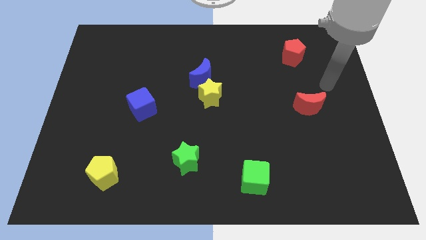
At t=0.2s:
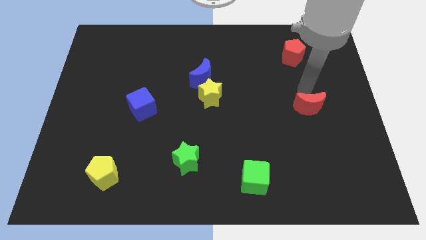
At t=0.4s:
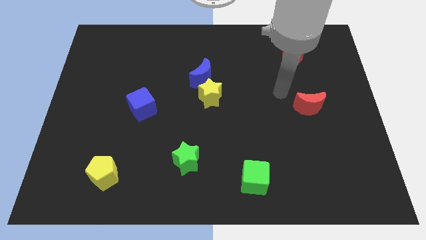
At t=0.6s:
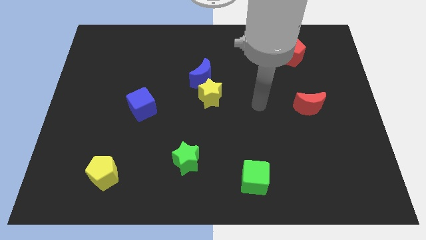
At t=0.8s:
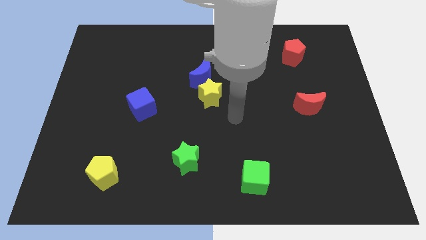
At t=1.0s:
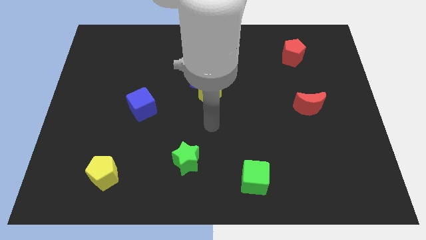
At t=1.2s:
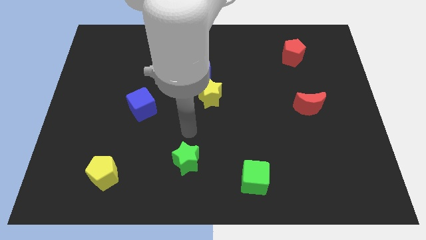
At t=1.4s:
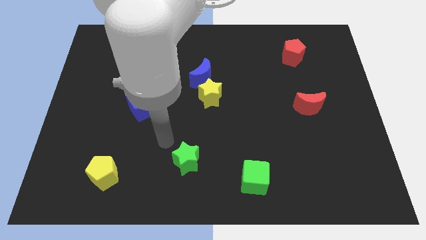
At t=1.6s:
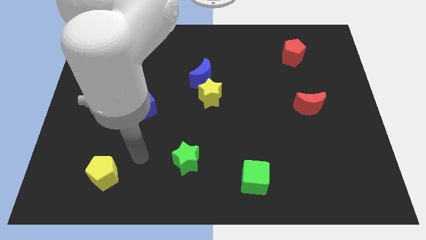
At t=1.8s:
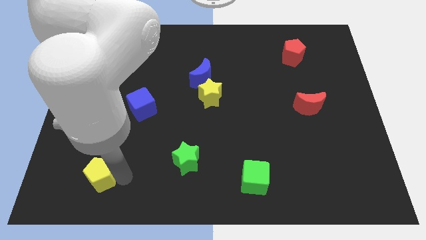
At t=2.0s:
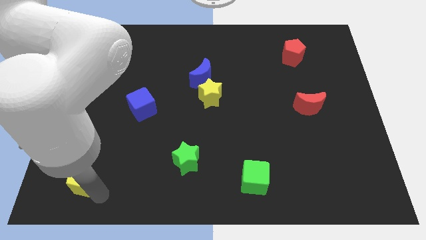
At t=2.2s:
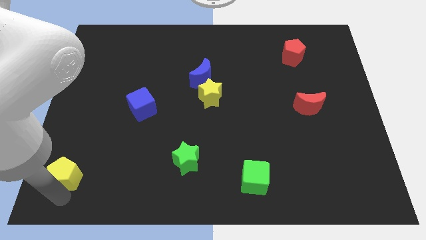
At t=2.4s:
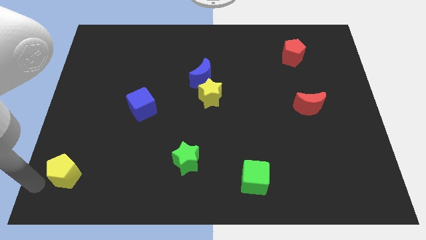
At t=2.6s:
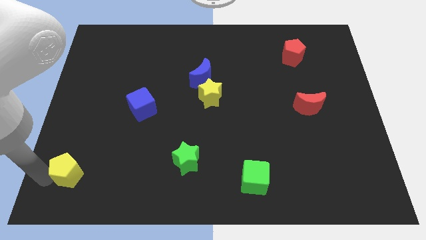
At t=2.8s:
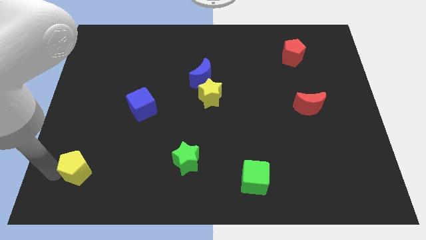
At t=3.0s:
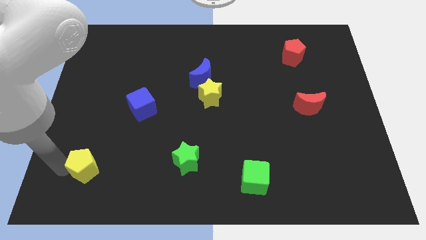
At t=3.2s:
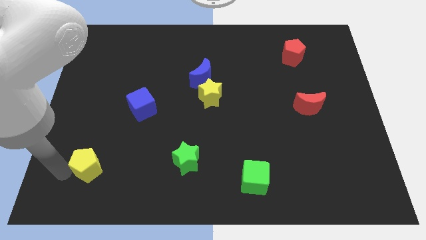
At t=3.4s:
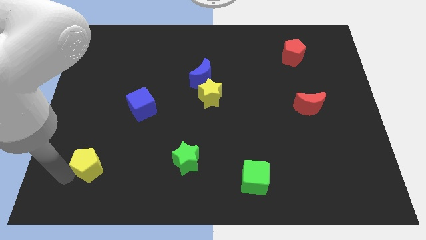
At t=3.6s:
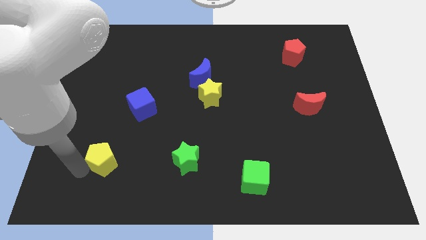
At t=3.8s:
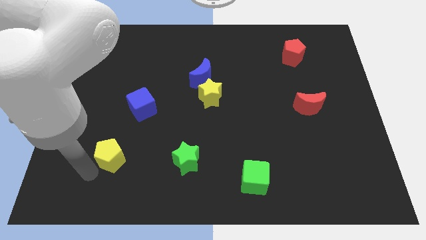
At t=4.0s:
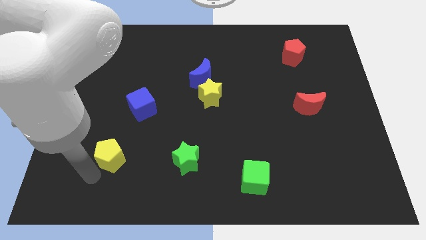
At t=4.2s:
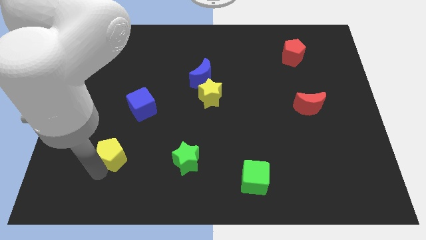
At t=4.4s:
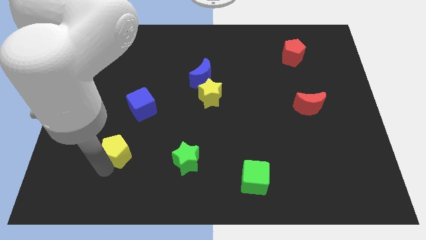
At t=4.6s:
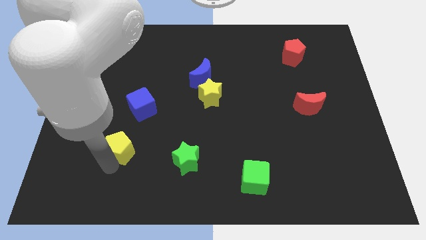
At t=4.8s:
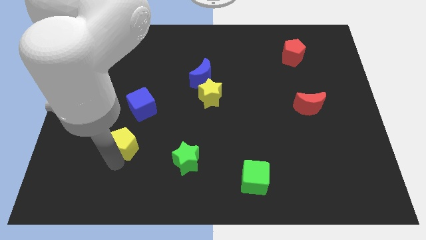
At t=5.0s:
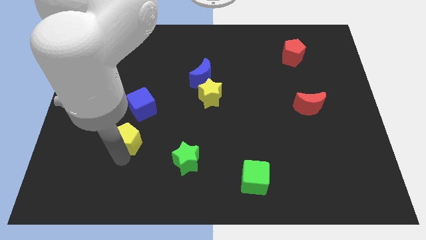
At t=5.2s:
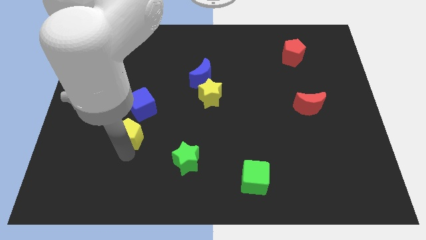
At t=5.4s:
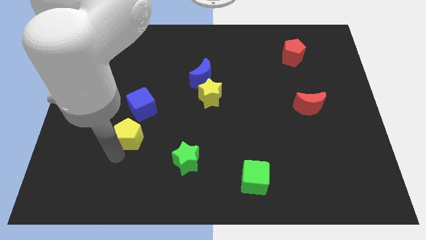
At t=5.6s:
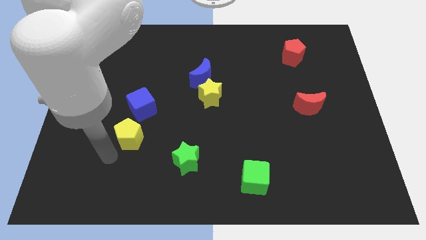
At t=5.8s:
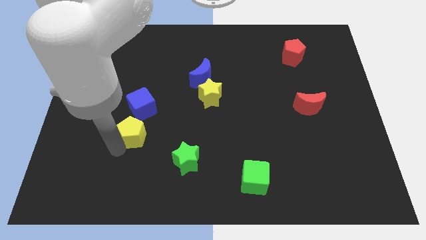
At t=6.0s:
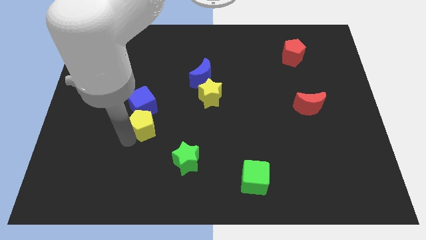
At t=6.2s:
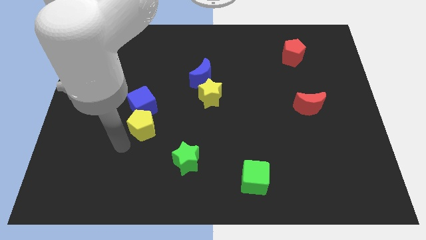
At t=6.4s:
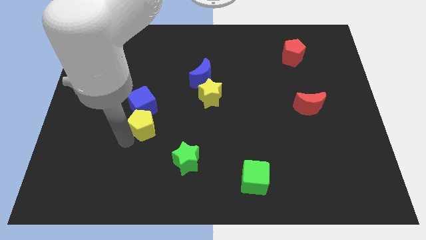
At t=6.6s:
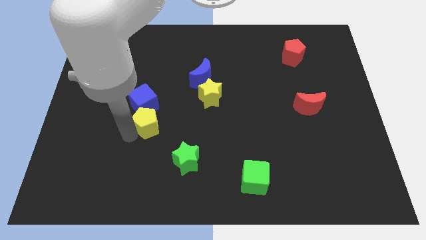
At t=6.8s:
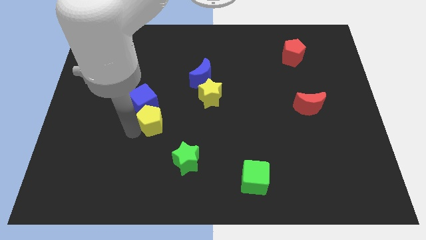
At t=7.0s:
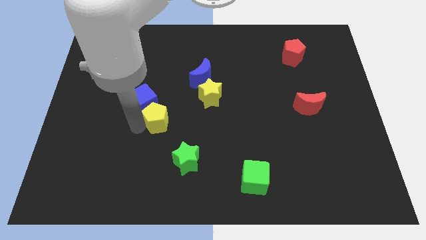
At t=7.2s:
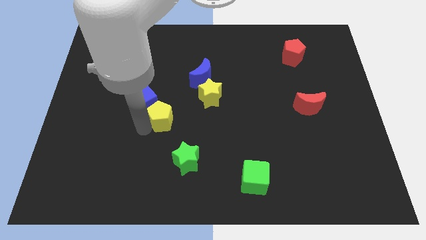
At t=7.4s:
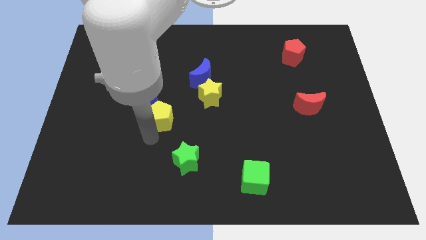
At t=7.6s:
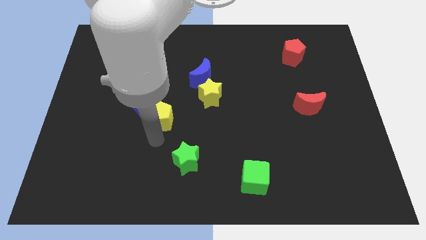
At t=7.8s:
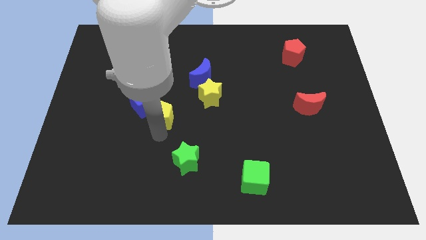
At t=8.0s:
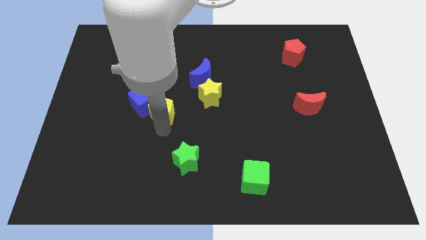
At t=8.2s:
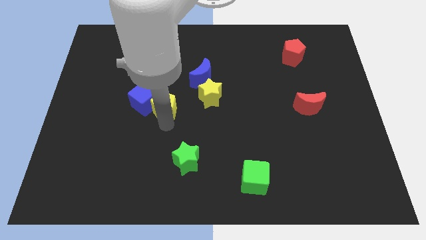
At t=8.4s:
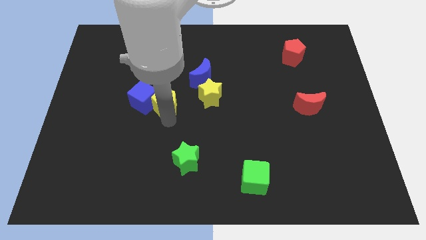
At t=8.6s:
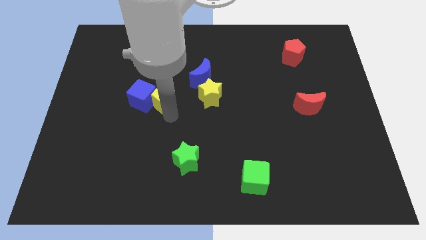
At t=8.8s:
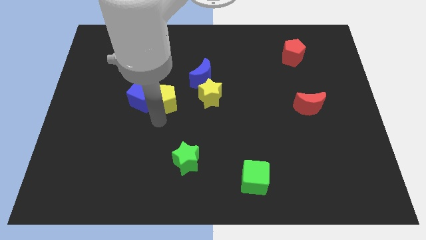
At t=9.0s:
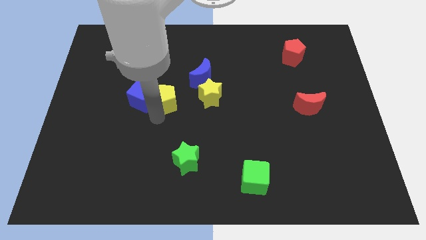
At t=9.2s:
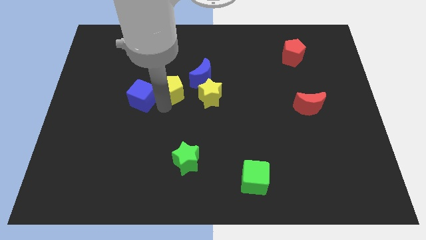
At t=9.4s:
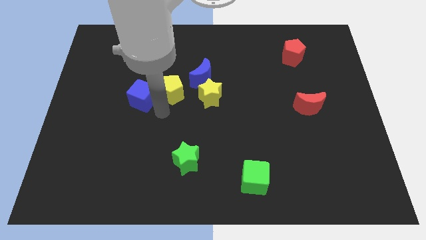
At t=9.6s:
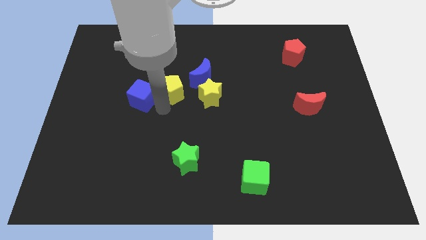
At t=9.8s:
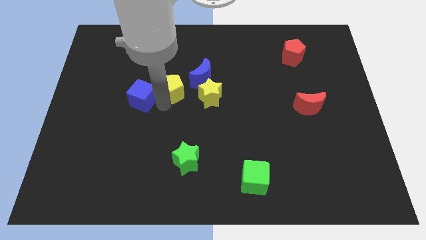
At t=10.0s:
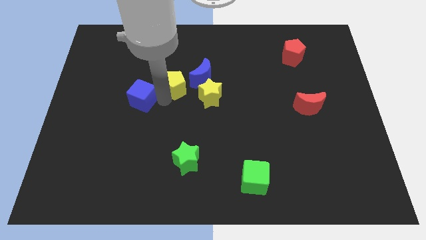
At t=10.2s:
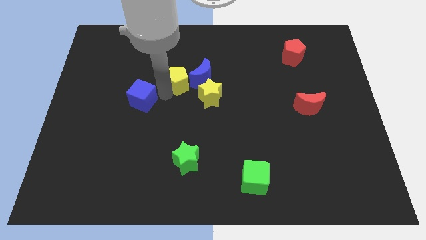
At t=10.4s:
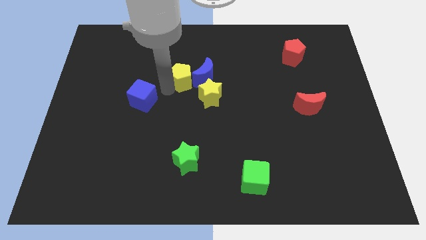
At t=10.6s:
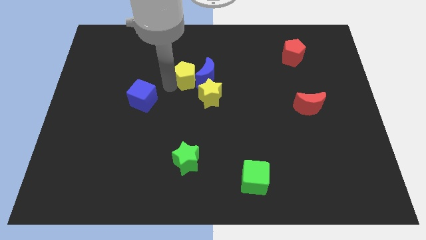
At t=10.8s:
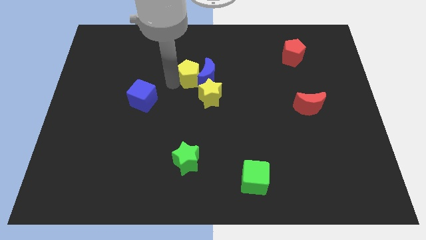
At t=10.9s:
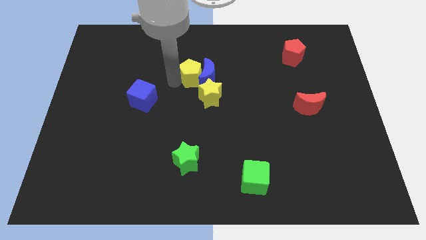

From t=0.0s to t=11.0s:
put the yellow pentagon to the top of the yellow star

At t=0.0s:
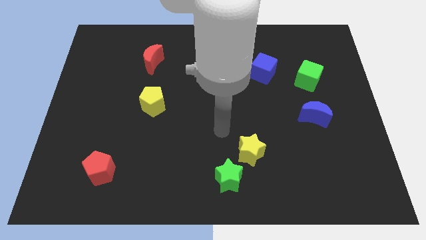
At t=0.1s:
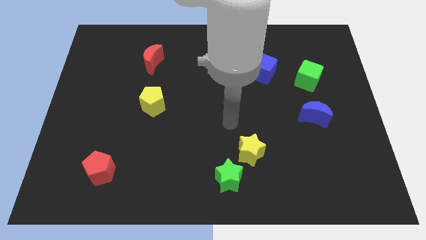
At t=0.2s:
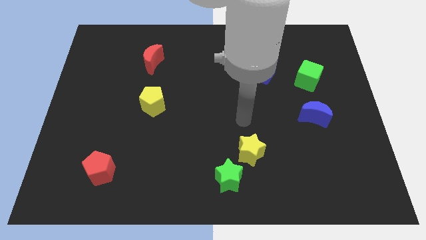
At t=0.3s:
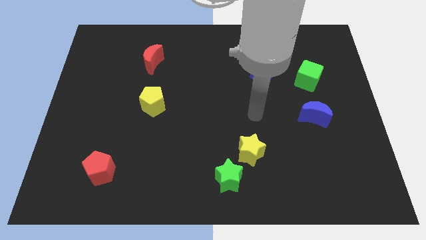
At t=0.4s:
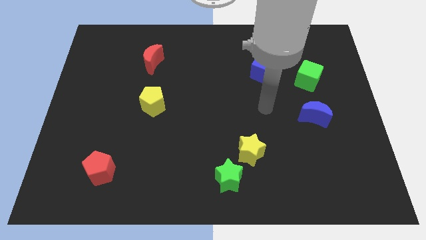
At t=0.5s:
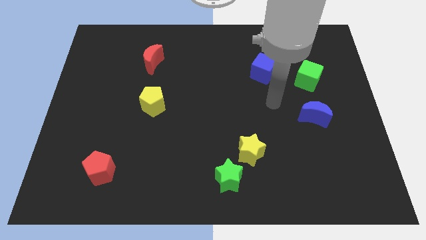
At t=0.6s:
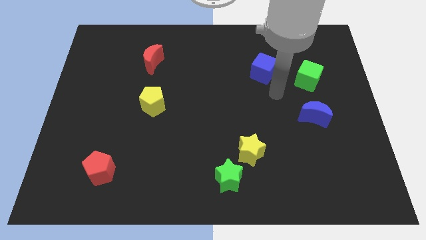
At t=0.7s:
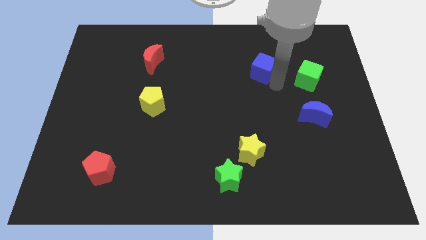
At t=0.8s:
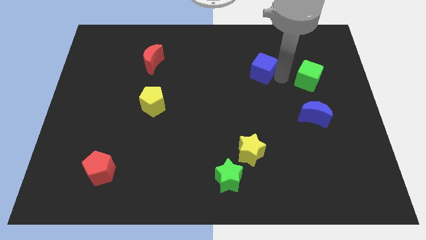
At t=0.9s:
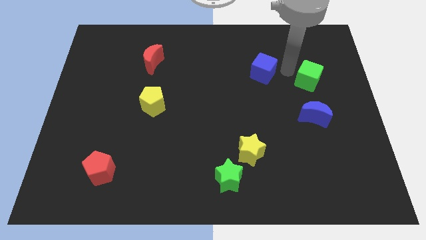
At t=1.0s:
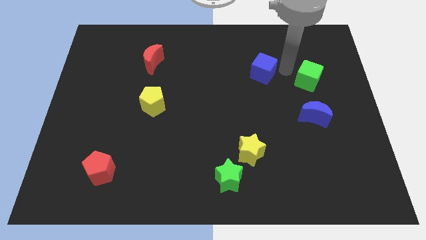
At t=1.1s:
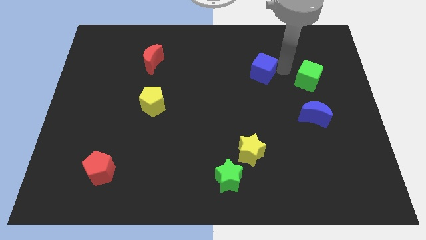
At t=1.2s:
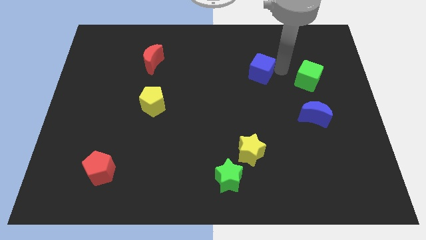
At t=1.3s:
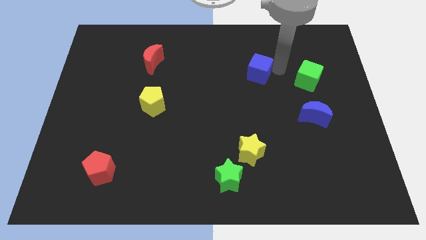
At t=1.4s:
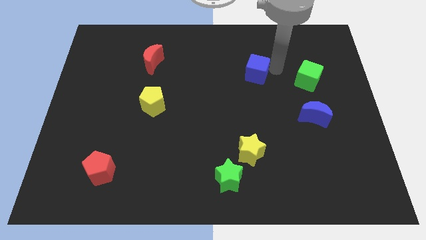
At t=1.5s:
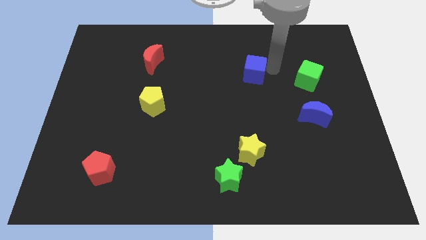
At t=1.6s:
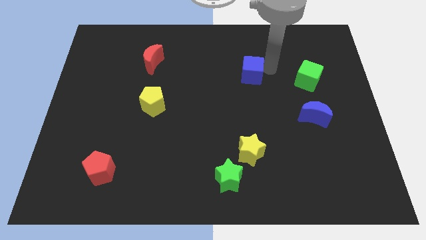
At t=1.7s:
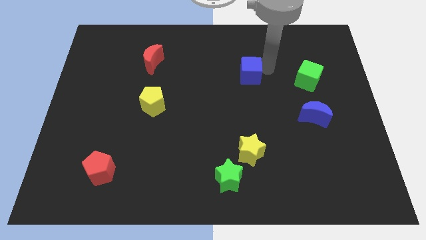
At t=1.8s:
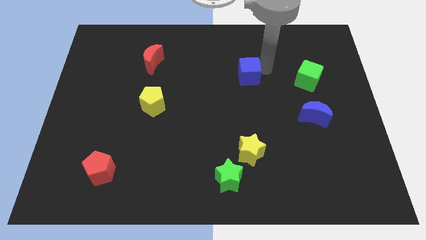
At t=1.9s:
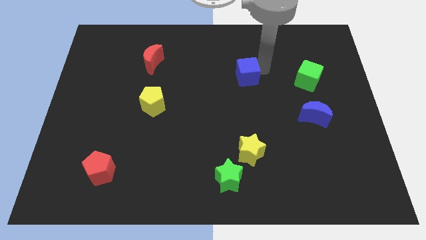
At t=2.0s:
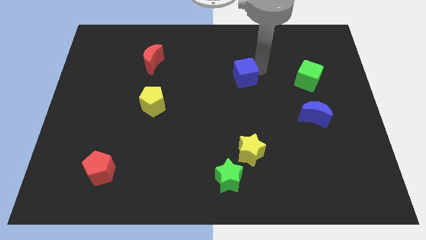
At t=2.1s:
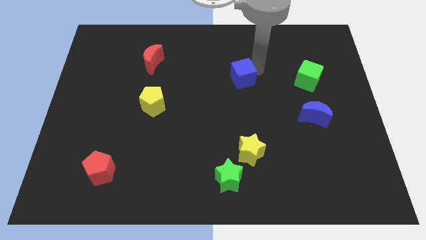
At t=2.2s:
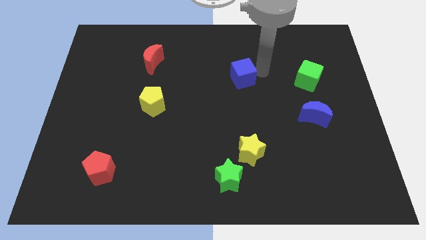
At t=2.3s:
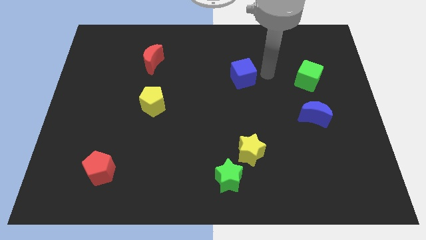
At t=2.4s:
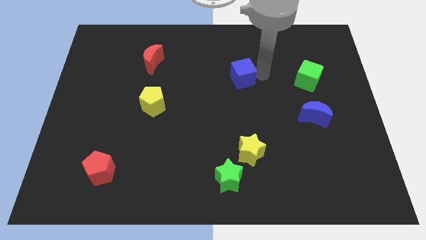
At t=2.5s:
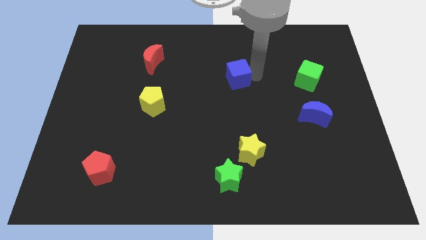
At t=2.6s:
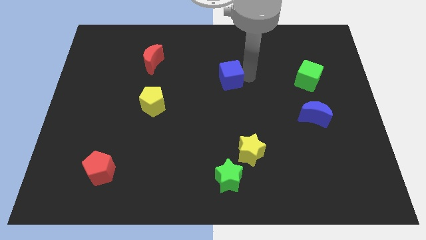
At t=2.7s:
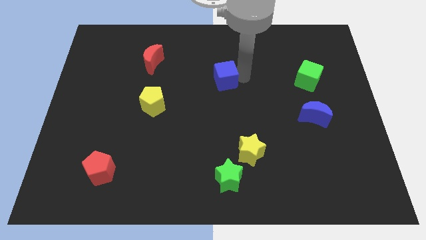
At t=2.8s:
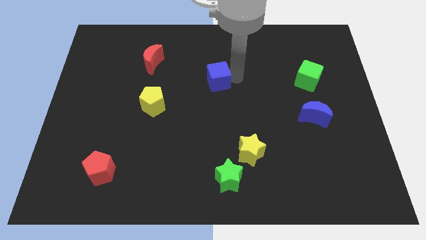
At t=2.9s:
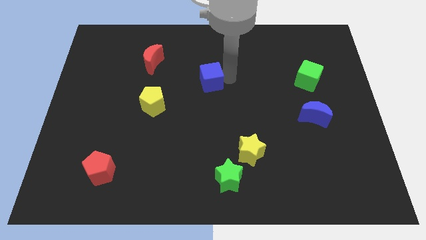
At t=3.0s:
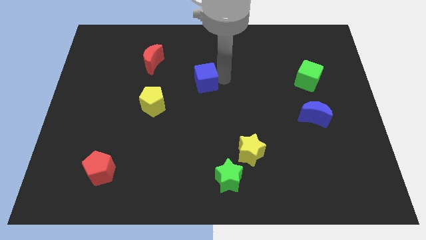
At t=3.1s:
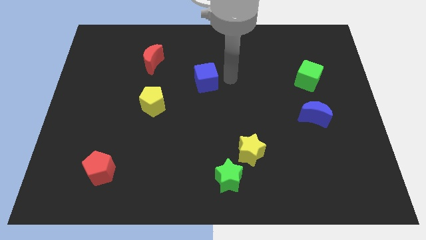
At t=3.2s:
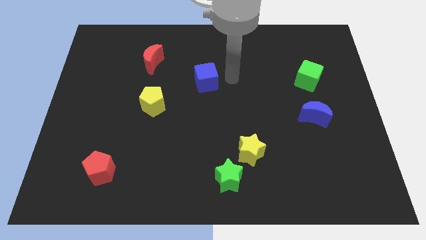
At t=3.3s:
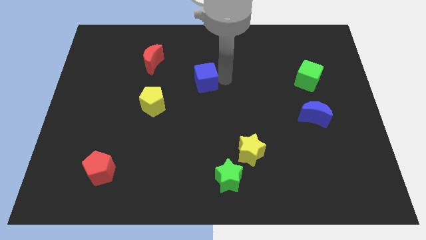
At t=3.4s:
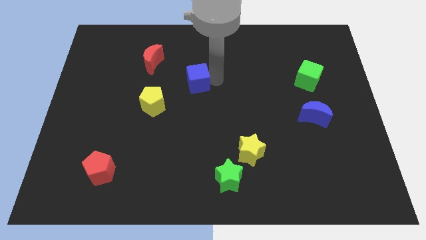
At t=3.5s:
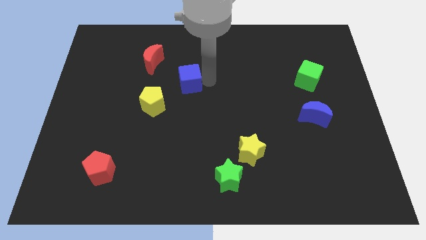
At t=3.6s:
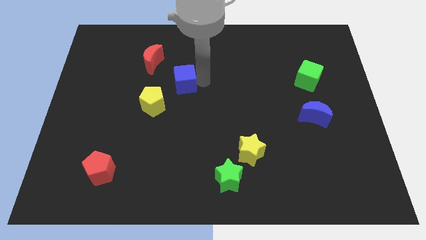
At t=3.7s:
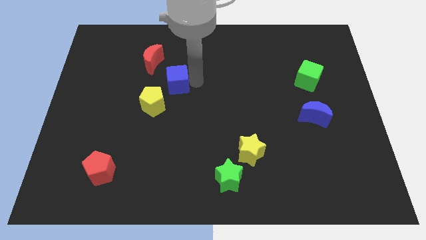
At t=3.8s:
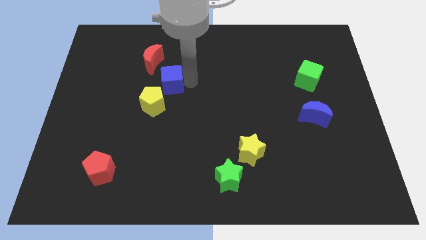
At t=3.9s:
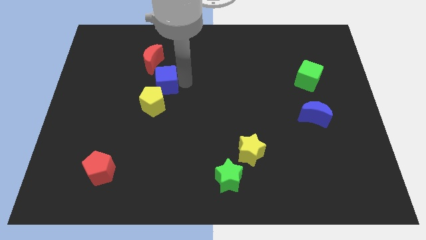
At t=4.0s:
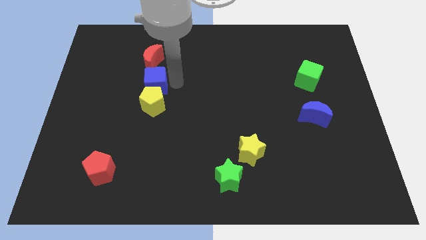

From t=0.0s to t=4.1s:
push the blue cube to the top left side of the yellow pentagon
